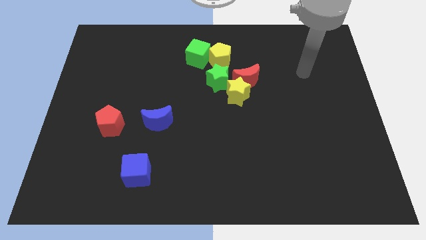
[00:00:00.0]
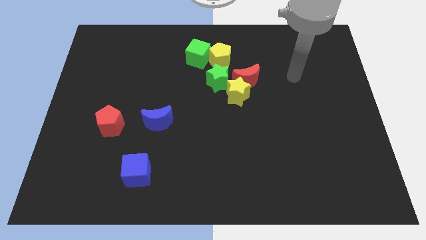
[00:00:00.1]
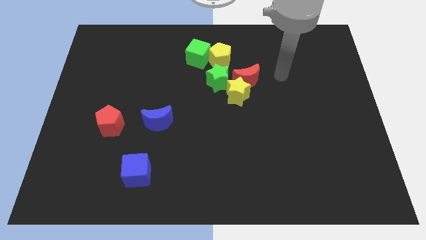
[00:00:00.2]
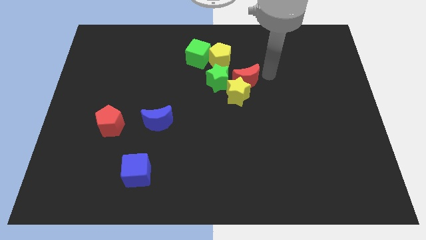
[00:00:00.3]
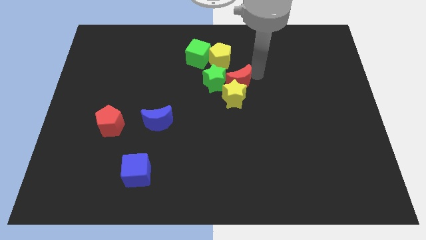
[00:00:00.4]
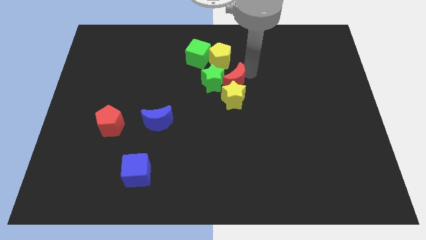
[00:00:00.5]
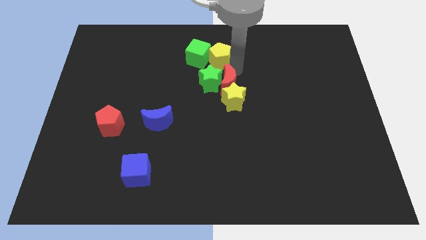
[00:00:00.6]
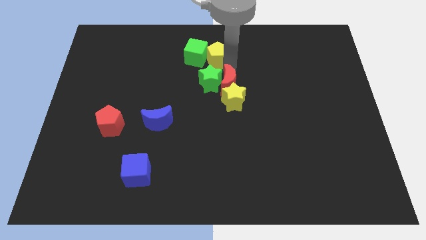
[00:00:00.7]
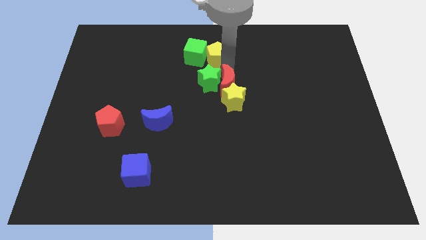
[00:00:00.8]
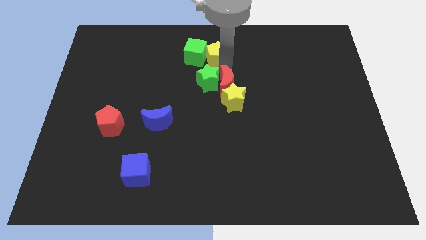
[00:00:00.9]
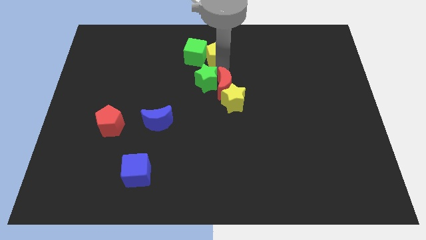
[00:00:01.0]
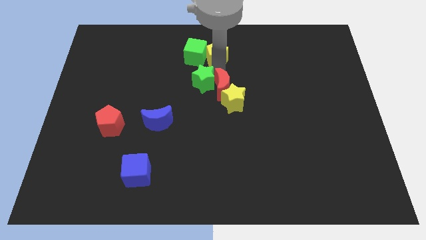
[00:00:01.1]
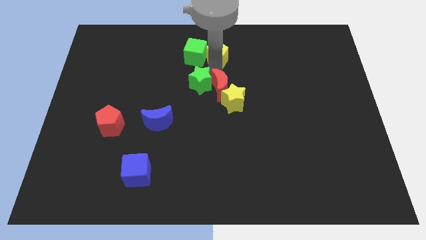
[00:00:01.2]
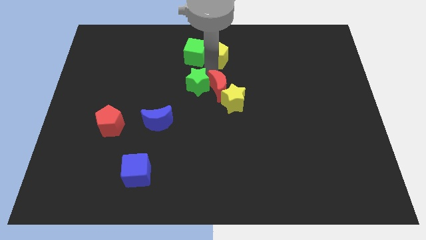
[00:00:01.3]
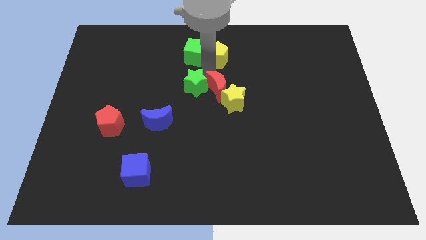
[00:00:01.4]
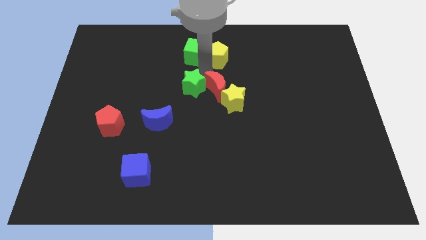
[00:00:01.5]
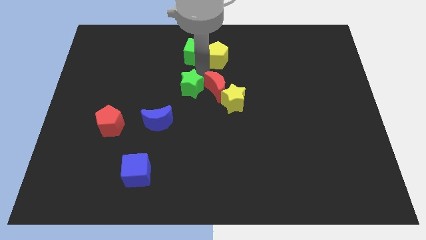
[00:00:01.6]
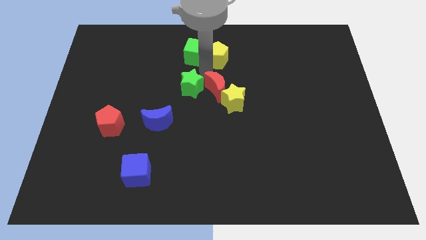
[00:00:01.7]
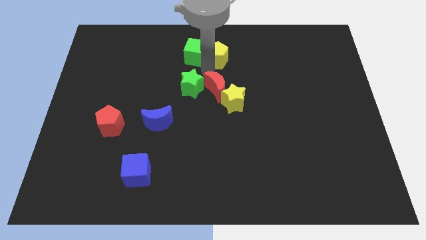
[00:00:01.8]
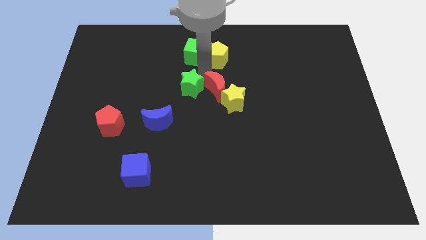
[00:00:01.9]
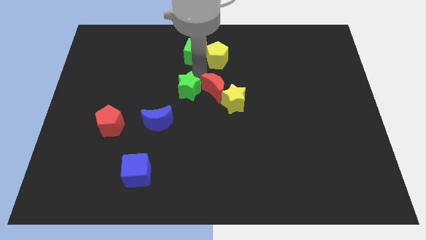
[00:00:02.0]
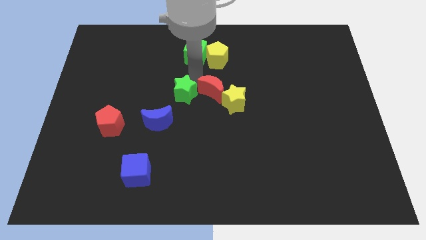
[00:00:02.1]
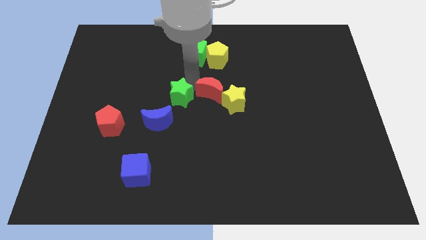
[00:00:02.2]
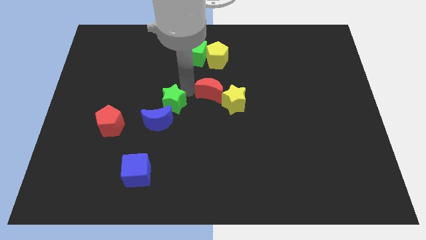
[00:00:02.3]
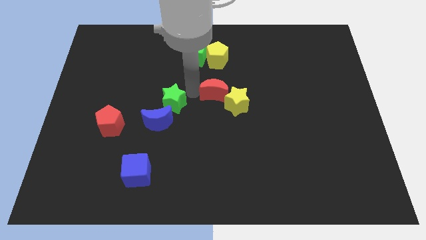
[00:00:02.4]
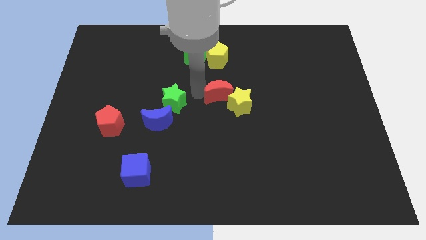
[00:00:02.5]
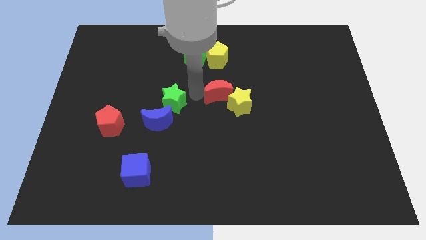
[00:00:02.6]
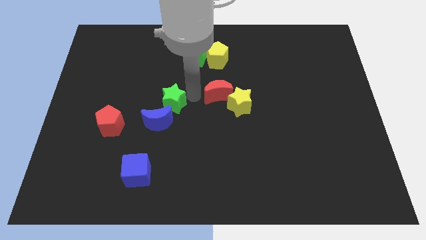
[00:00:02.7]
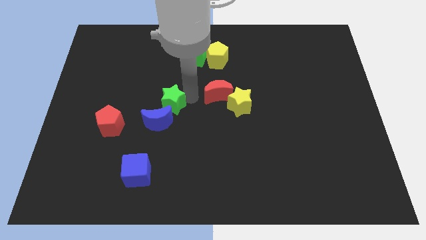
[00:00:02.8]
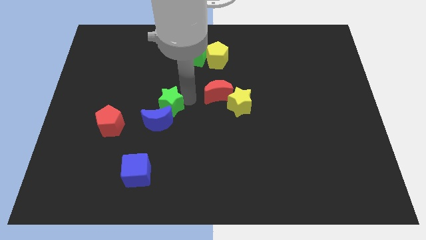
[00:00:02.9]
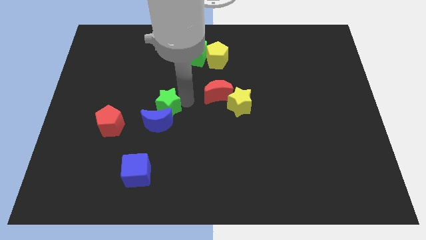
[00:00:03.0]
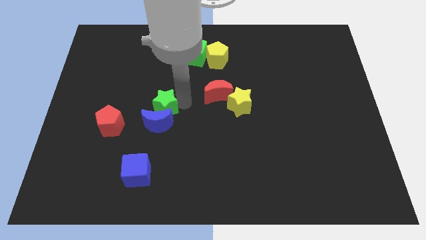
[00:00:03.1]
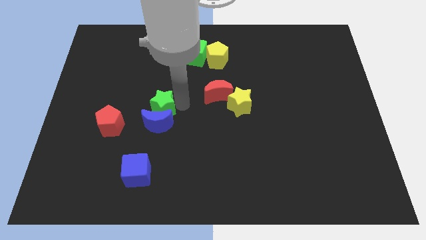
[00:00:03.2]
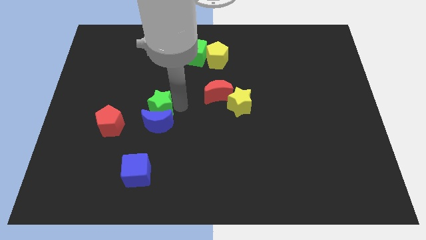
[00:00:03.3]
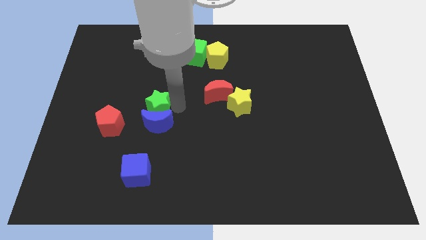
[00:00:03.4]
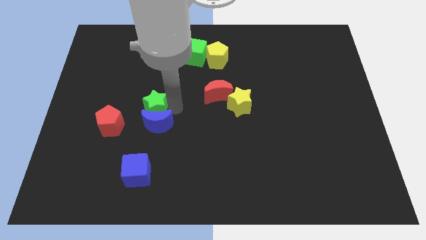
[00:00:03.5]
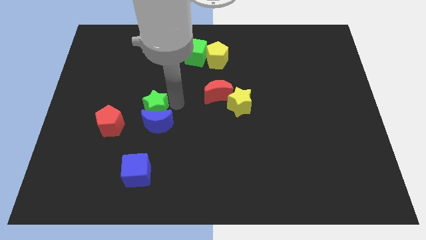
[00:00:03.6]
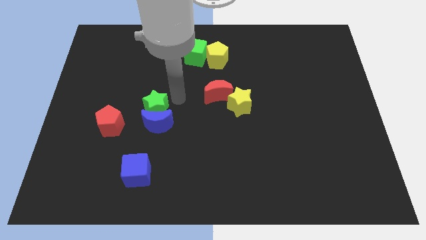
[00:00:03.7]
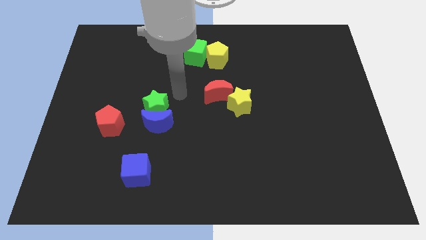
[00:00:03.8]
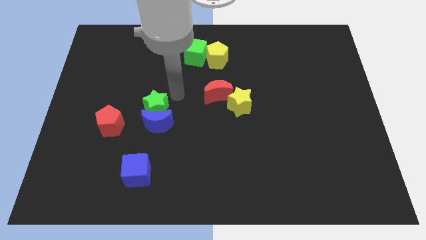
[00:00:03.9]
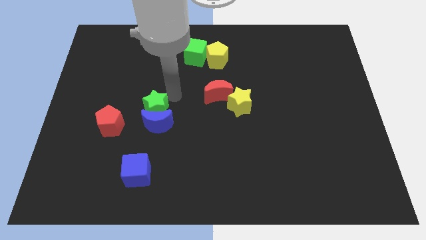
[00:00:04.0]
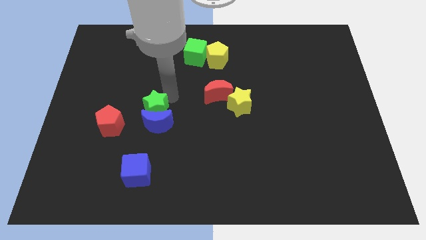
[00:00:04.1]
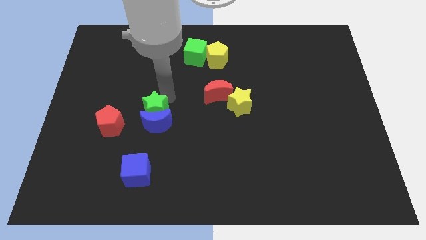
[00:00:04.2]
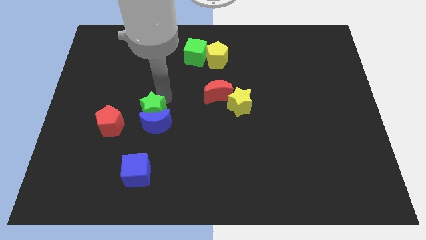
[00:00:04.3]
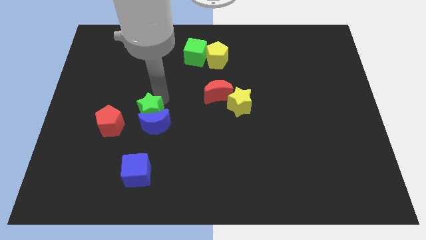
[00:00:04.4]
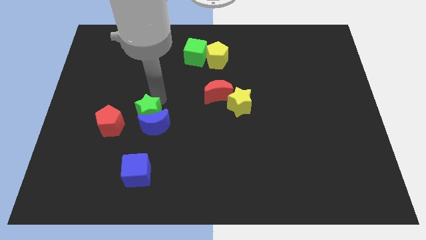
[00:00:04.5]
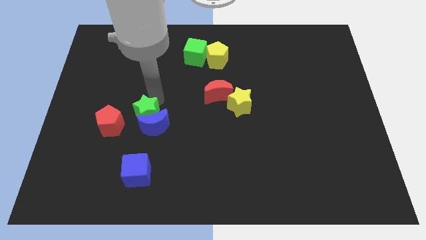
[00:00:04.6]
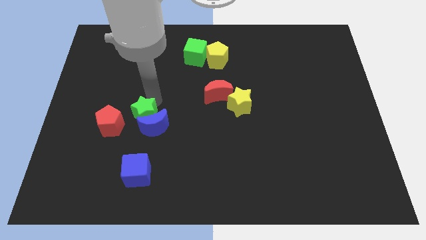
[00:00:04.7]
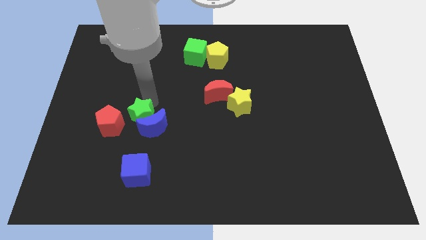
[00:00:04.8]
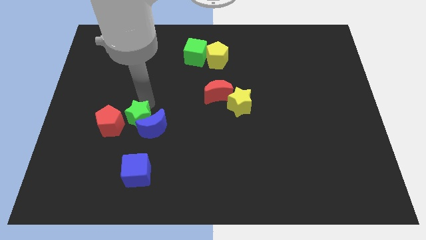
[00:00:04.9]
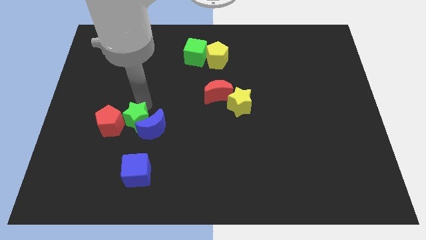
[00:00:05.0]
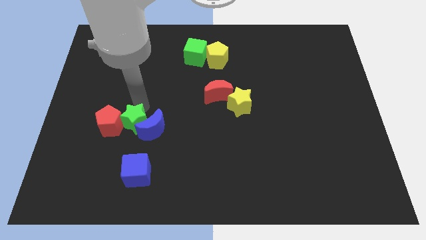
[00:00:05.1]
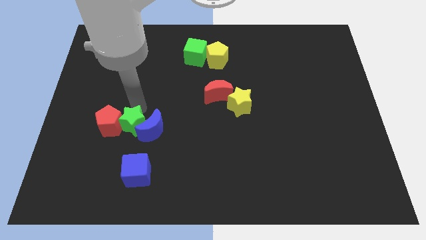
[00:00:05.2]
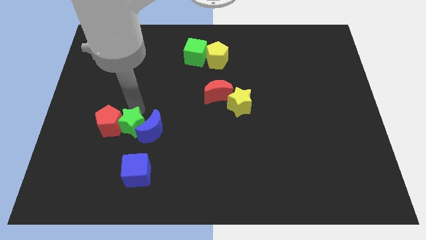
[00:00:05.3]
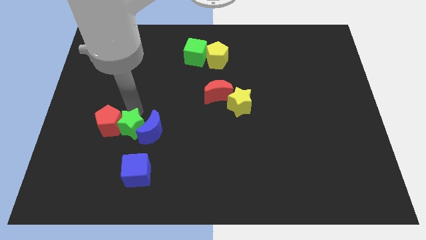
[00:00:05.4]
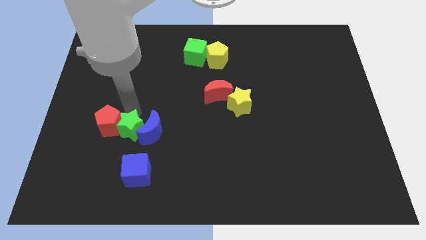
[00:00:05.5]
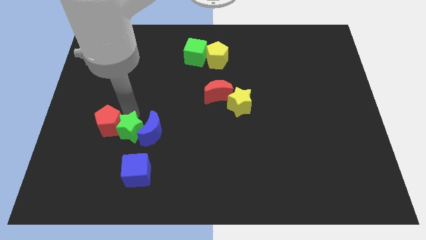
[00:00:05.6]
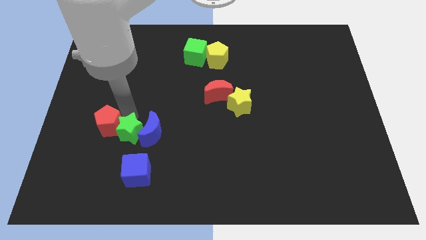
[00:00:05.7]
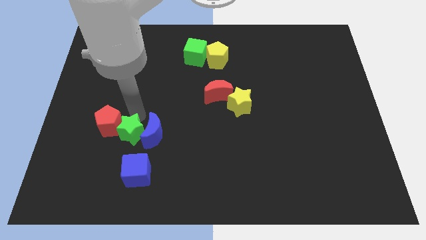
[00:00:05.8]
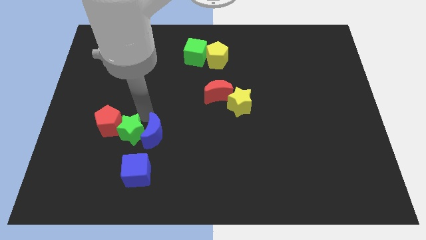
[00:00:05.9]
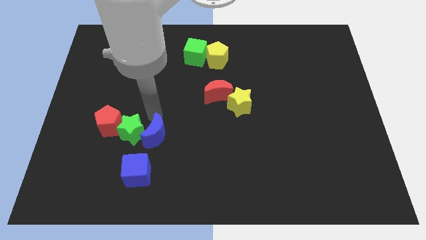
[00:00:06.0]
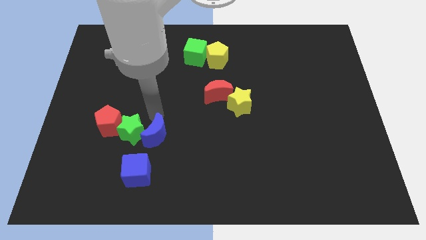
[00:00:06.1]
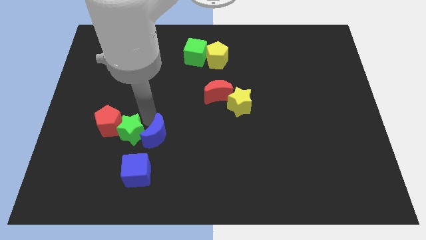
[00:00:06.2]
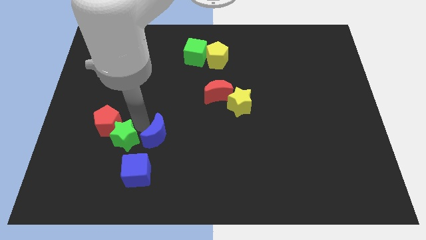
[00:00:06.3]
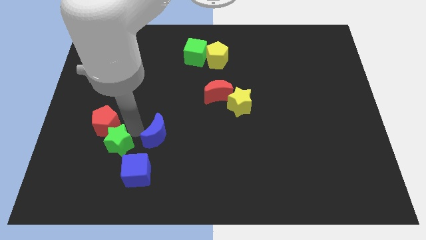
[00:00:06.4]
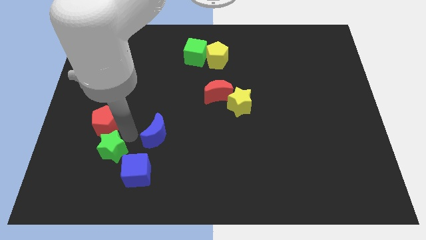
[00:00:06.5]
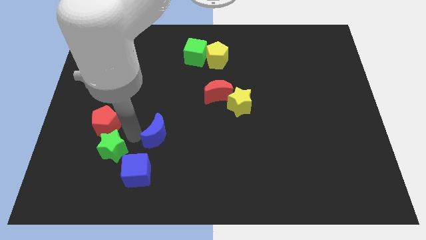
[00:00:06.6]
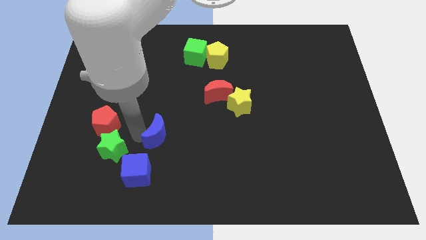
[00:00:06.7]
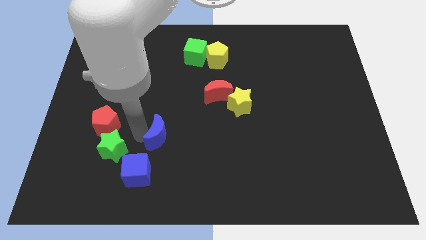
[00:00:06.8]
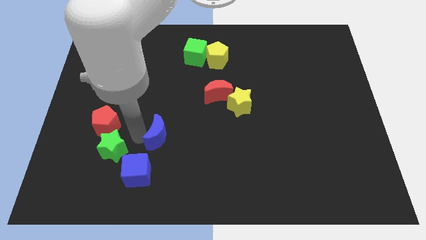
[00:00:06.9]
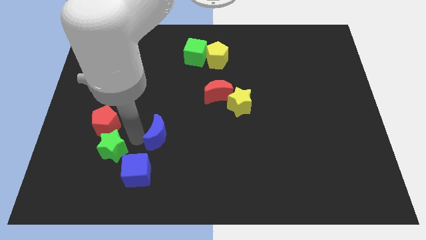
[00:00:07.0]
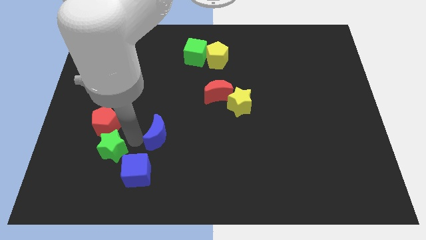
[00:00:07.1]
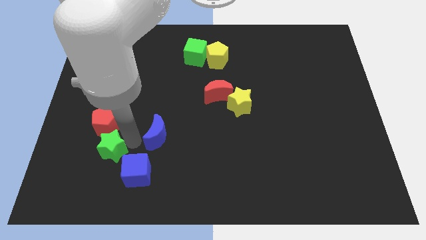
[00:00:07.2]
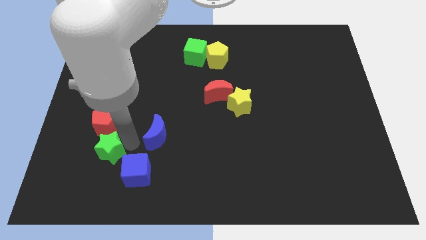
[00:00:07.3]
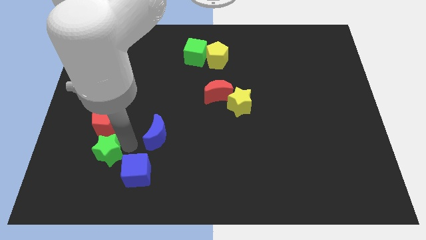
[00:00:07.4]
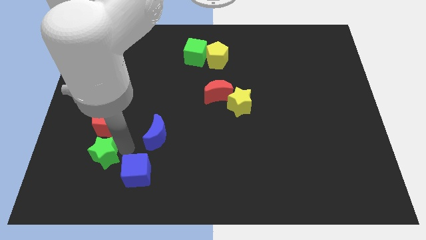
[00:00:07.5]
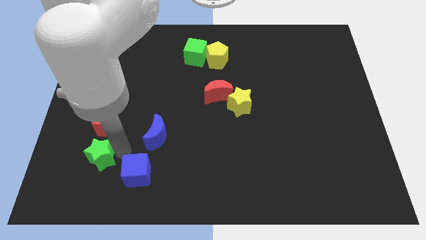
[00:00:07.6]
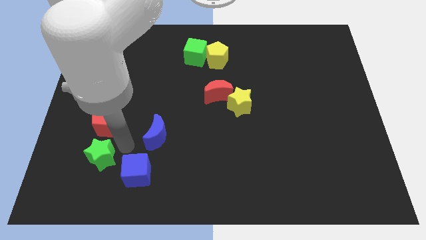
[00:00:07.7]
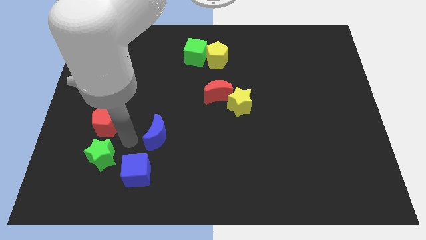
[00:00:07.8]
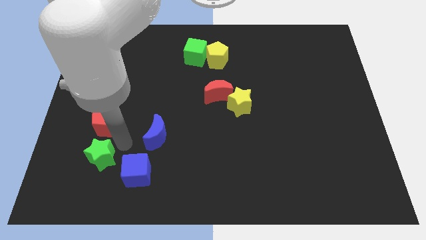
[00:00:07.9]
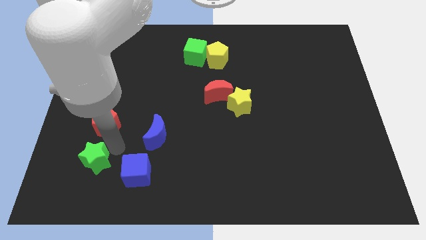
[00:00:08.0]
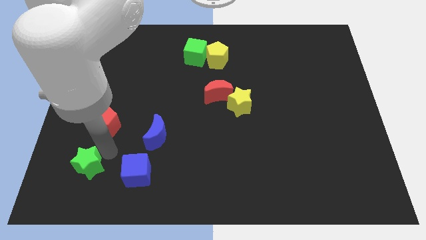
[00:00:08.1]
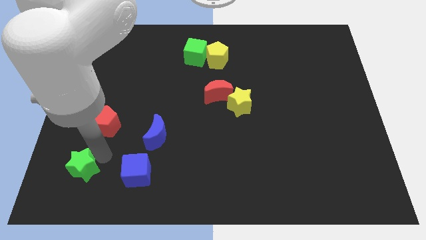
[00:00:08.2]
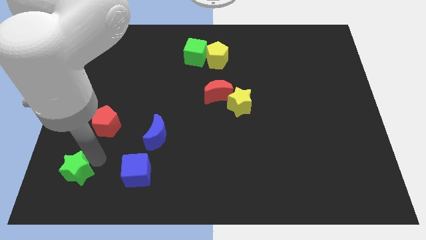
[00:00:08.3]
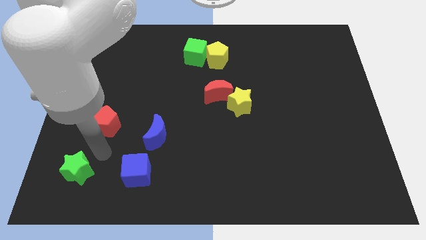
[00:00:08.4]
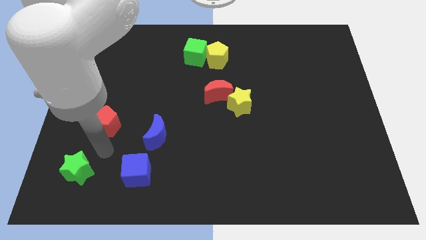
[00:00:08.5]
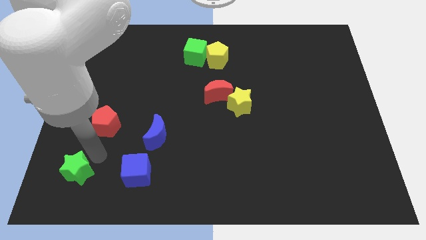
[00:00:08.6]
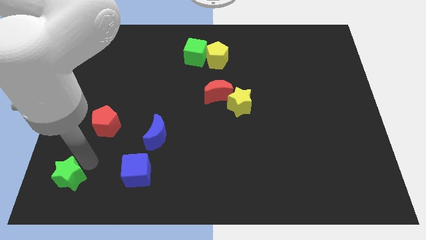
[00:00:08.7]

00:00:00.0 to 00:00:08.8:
put the green star to the bottom left
